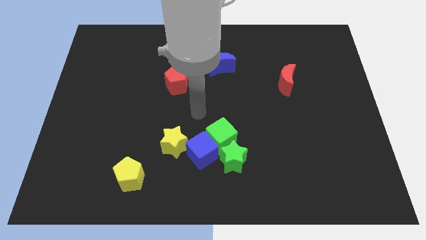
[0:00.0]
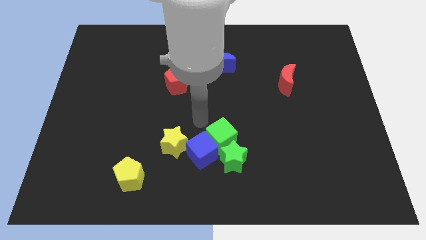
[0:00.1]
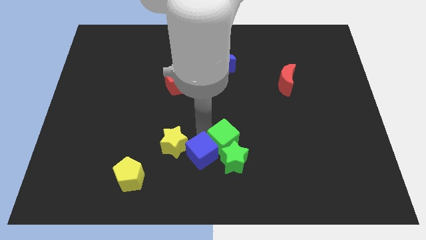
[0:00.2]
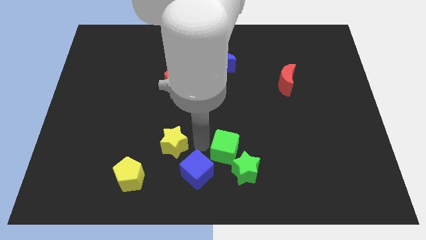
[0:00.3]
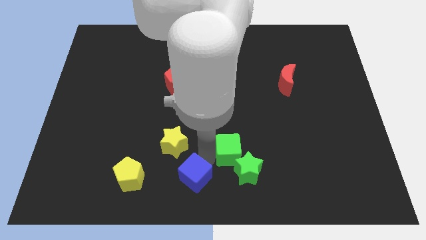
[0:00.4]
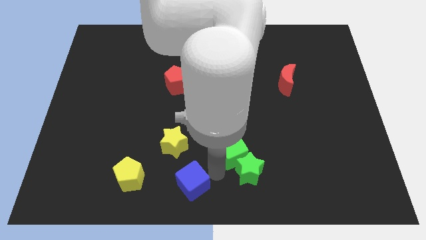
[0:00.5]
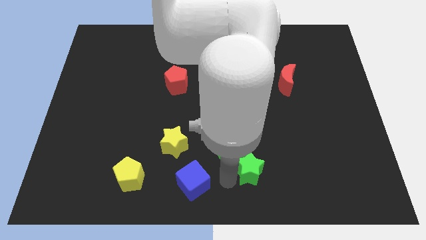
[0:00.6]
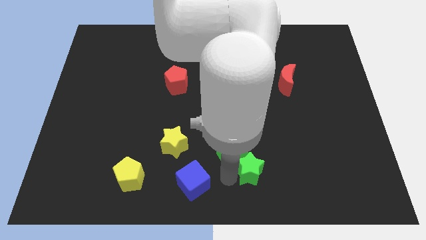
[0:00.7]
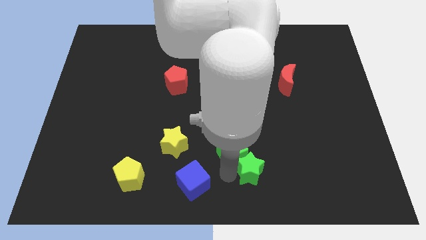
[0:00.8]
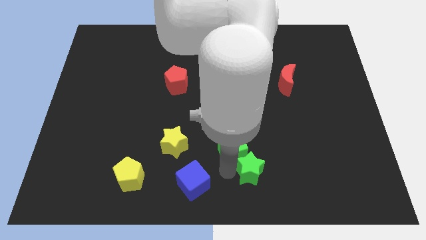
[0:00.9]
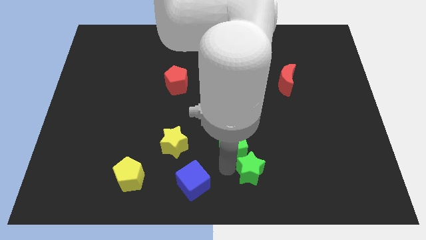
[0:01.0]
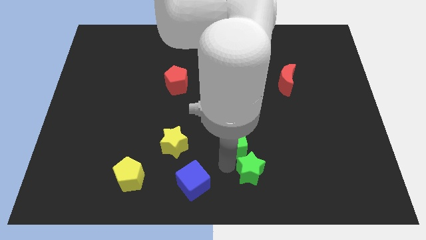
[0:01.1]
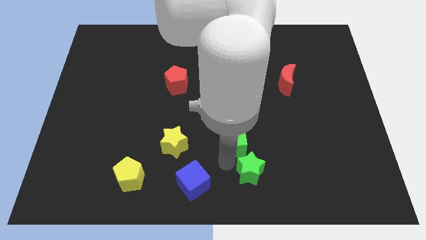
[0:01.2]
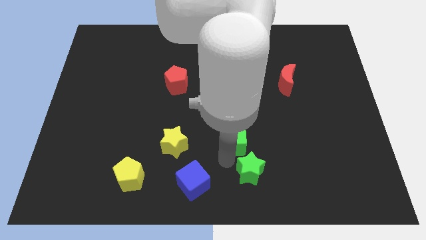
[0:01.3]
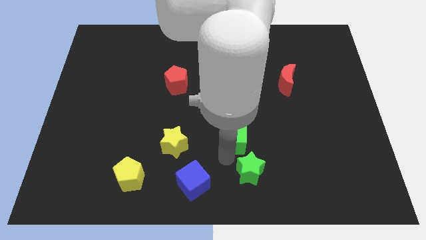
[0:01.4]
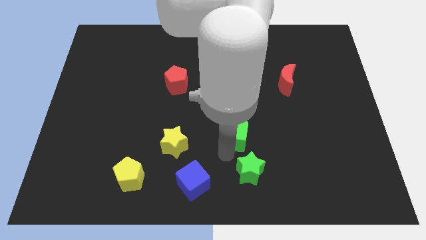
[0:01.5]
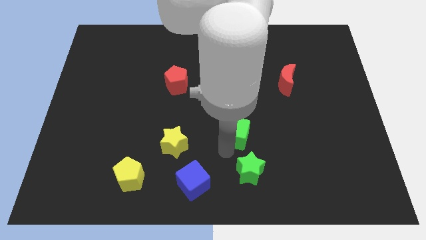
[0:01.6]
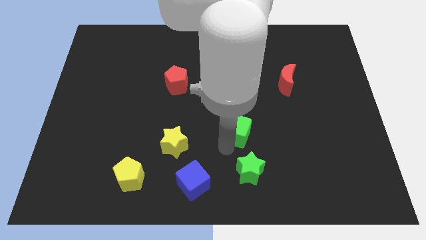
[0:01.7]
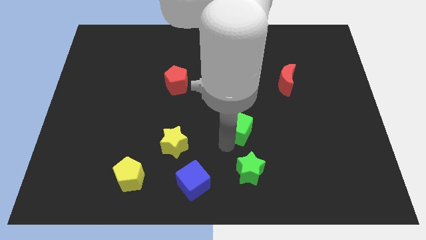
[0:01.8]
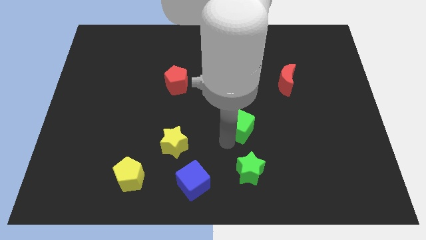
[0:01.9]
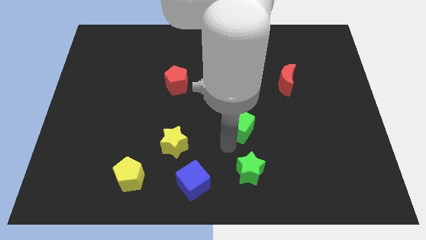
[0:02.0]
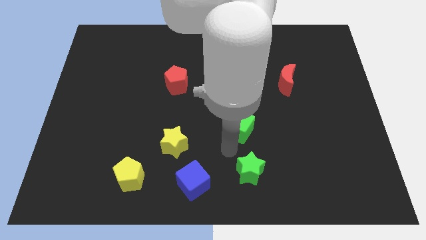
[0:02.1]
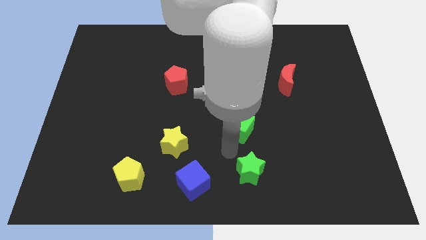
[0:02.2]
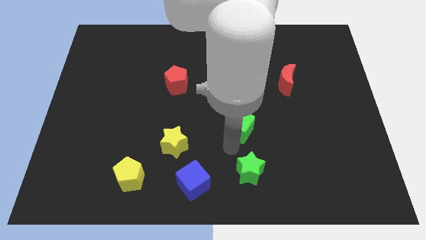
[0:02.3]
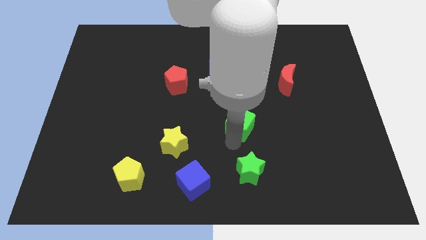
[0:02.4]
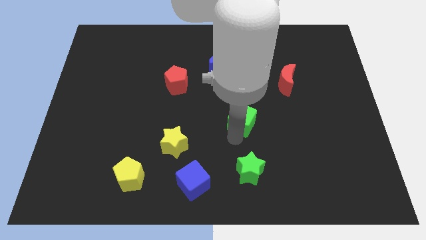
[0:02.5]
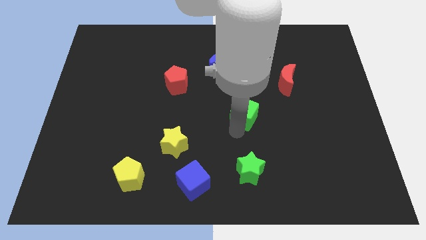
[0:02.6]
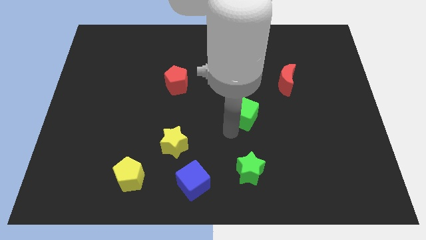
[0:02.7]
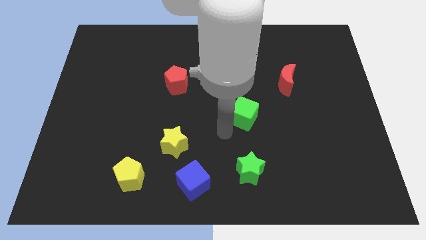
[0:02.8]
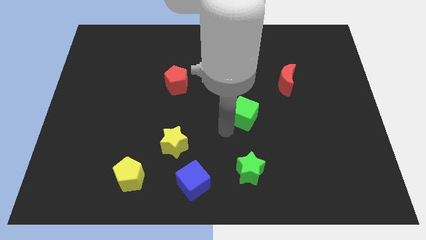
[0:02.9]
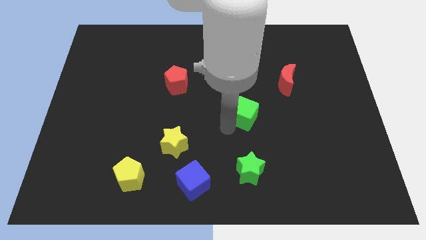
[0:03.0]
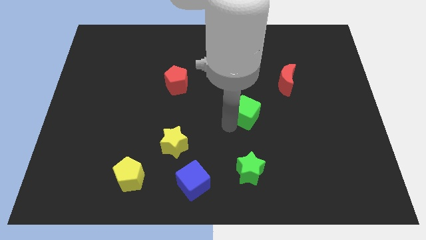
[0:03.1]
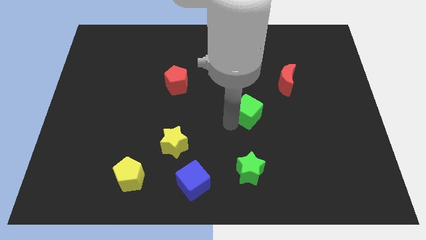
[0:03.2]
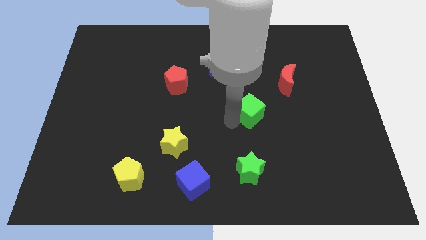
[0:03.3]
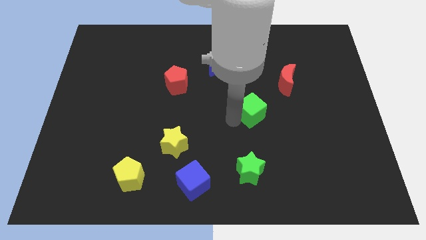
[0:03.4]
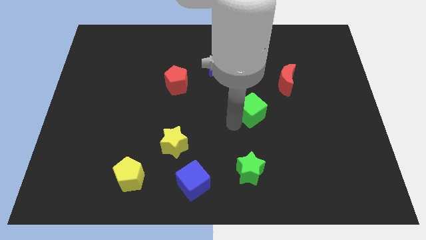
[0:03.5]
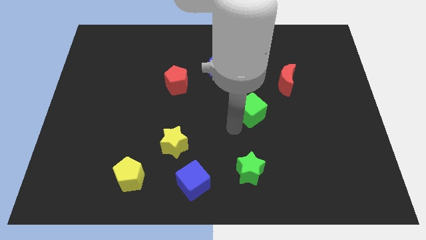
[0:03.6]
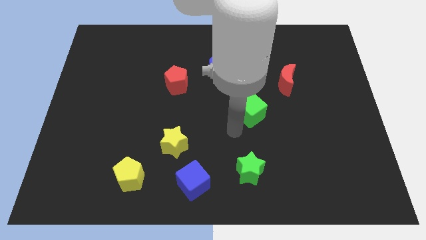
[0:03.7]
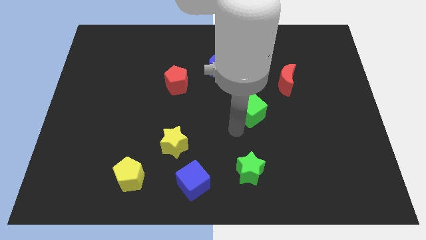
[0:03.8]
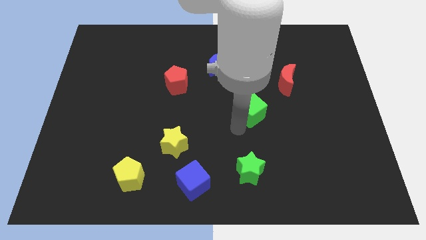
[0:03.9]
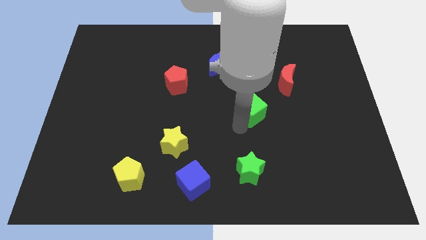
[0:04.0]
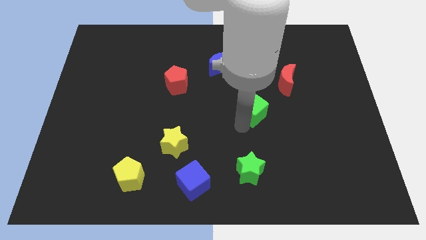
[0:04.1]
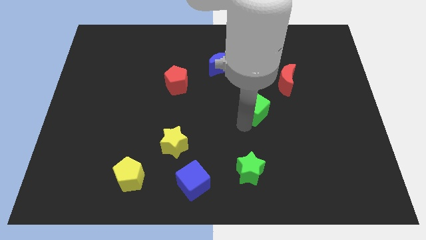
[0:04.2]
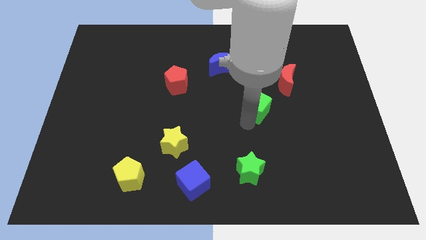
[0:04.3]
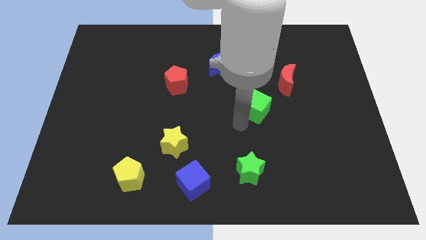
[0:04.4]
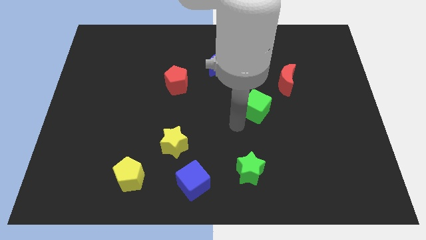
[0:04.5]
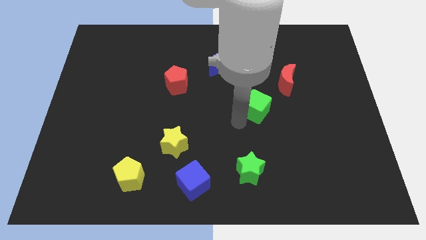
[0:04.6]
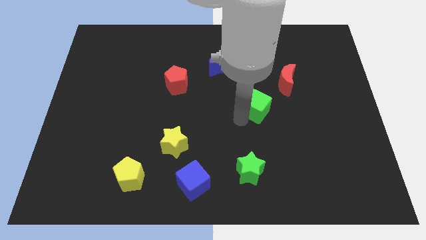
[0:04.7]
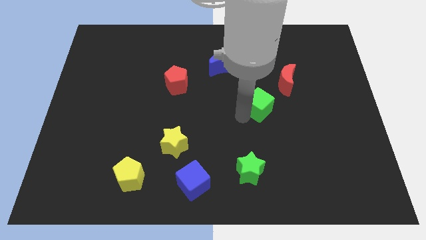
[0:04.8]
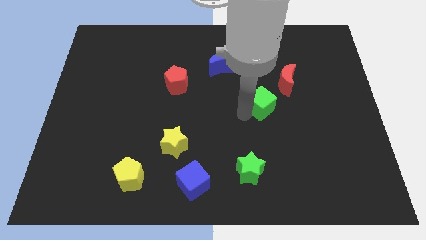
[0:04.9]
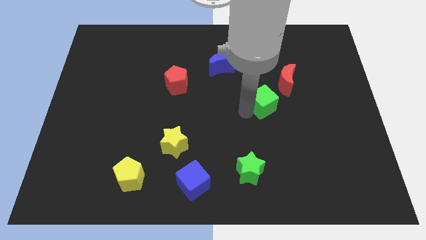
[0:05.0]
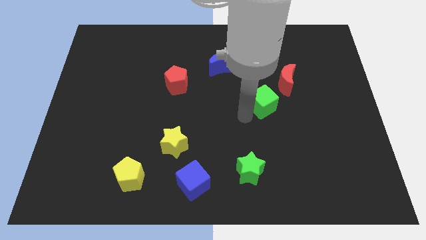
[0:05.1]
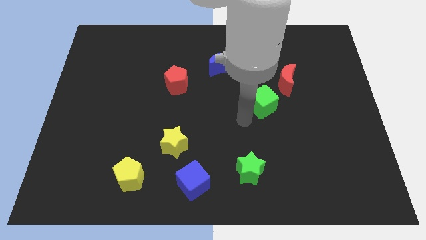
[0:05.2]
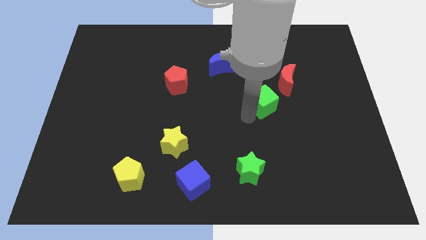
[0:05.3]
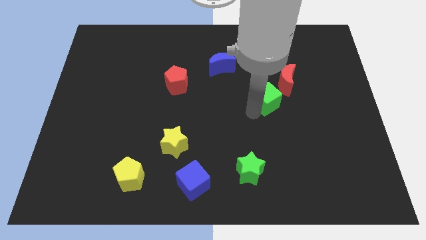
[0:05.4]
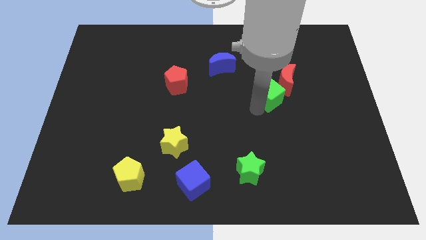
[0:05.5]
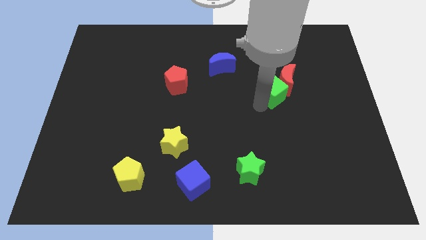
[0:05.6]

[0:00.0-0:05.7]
push the green cube next to the red moon

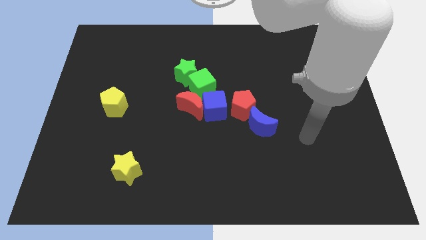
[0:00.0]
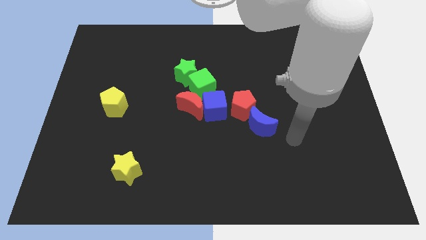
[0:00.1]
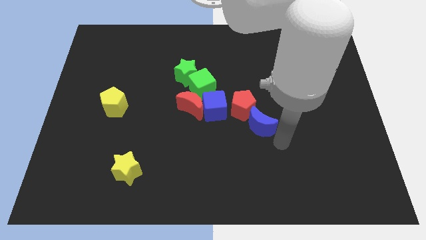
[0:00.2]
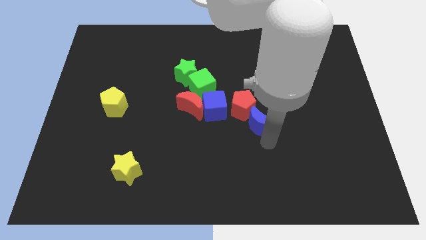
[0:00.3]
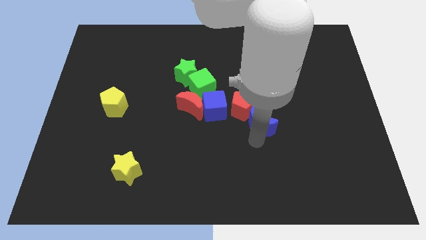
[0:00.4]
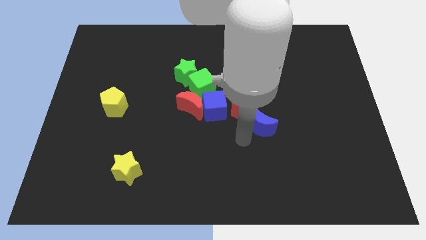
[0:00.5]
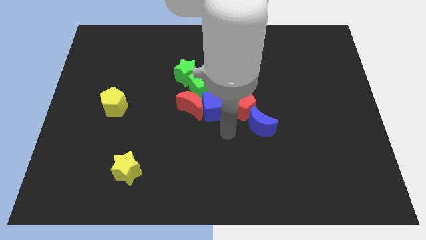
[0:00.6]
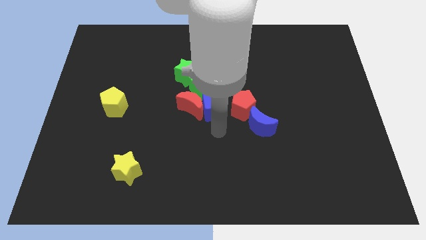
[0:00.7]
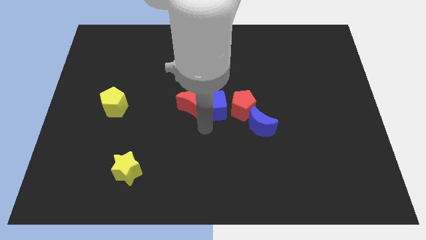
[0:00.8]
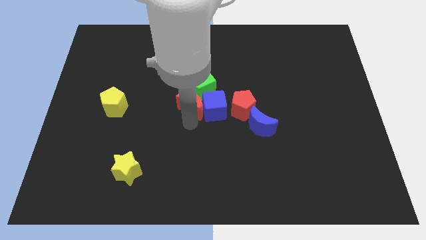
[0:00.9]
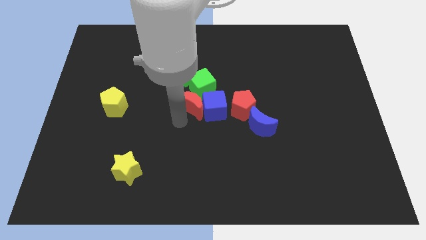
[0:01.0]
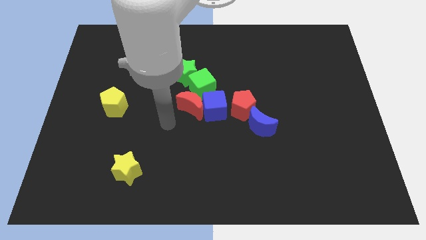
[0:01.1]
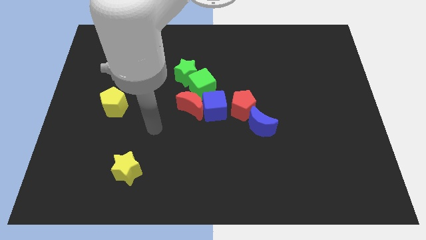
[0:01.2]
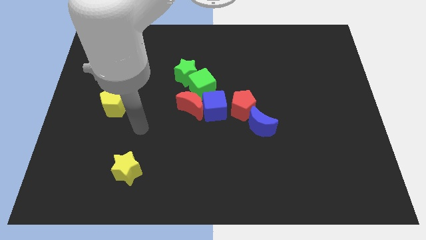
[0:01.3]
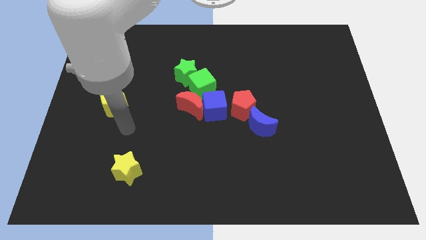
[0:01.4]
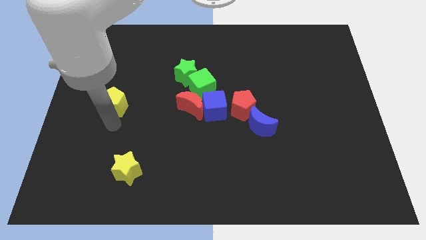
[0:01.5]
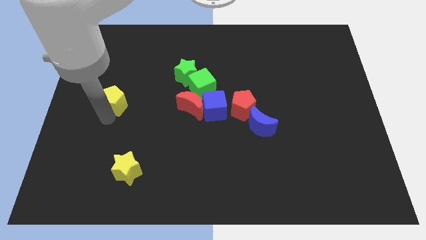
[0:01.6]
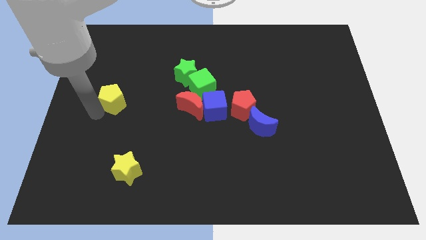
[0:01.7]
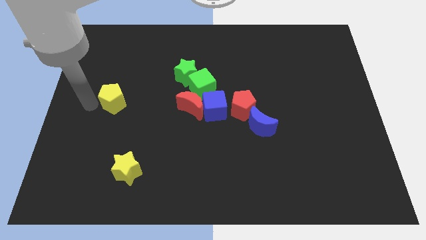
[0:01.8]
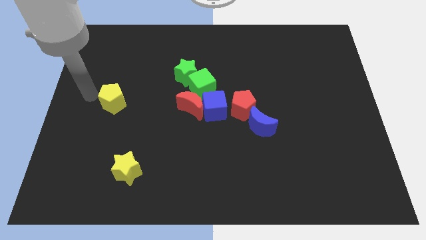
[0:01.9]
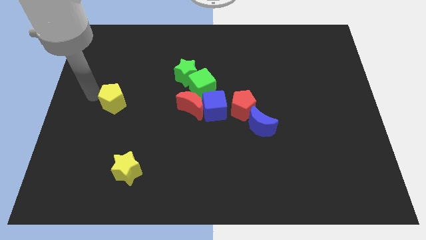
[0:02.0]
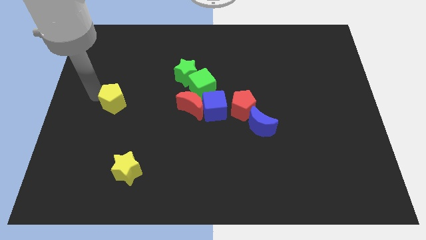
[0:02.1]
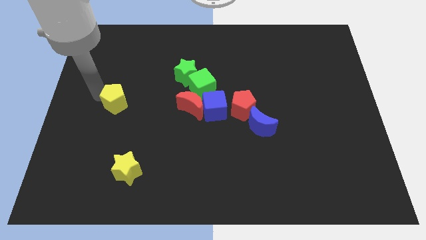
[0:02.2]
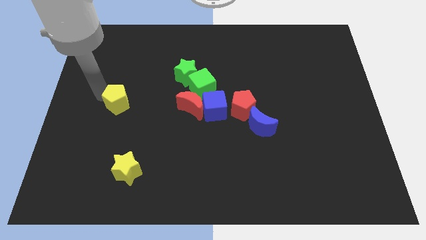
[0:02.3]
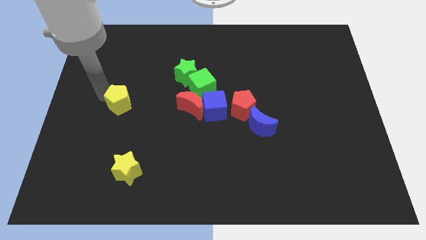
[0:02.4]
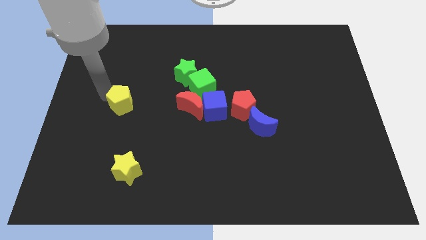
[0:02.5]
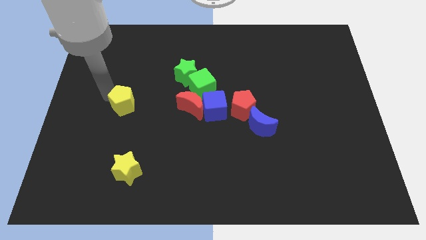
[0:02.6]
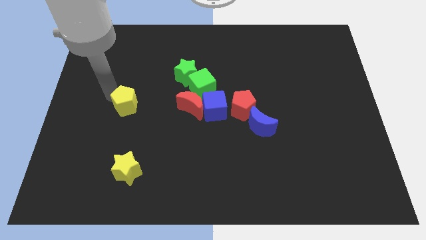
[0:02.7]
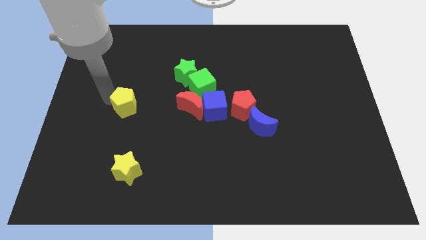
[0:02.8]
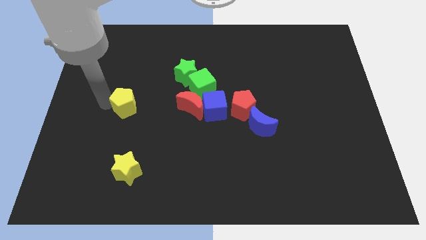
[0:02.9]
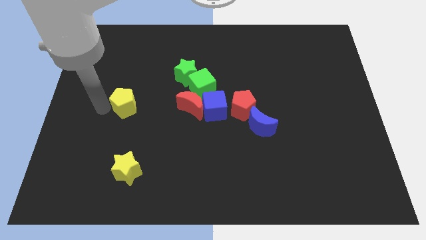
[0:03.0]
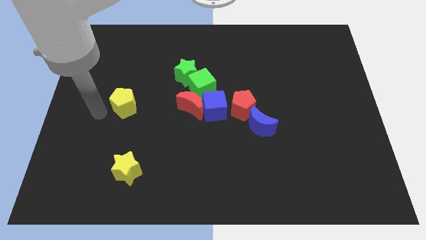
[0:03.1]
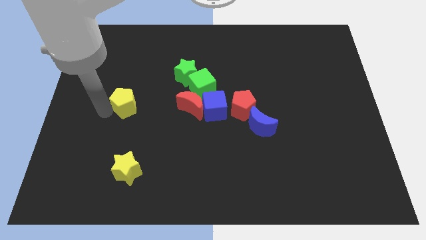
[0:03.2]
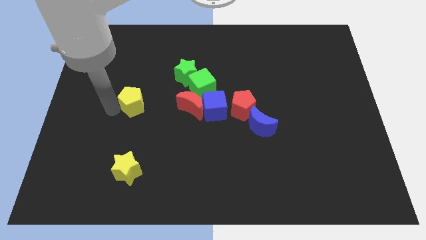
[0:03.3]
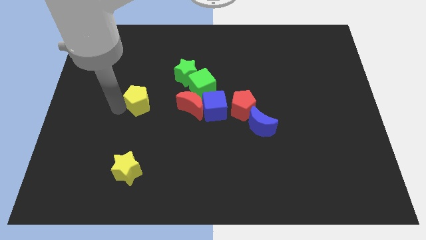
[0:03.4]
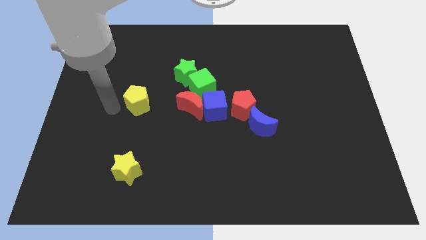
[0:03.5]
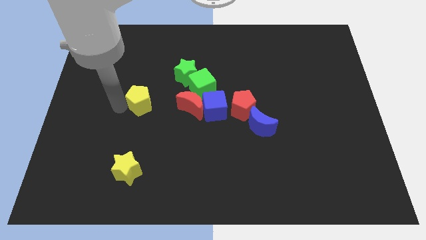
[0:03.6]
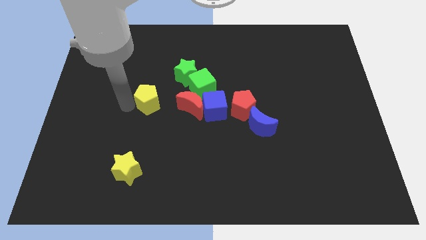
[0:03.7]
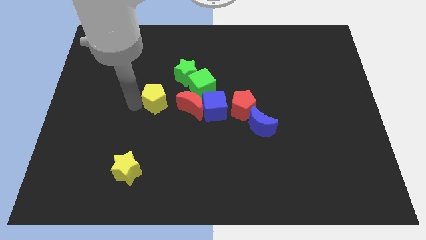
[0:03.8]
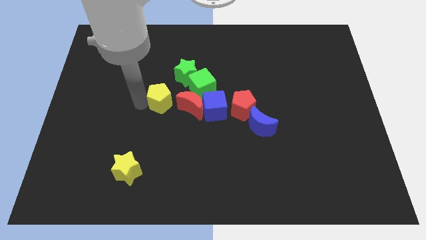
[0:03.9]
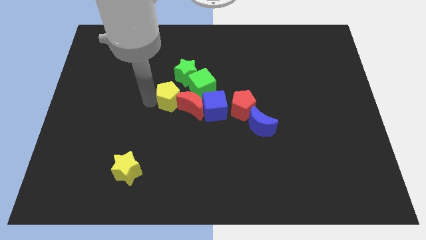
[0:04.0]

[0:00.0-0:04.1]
move the yellow pentagon close to the red moon
